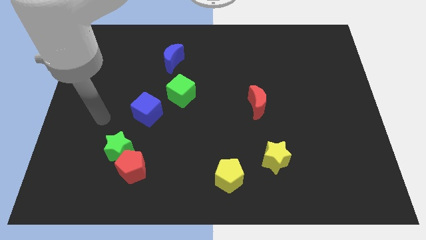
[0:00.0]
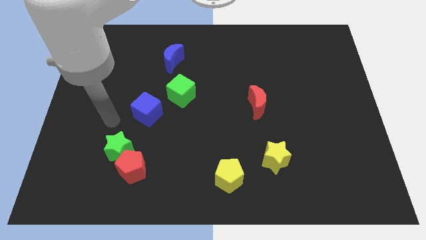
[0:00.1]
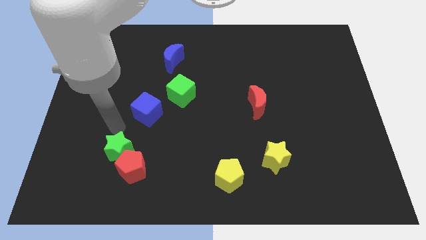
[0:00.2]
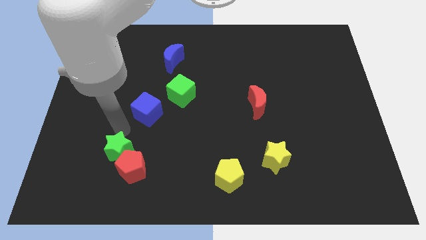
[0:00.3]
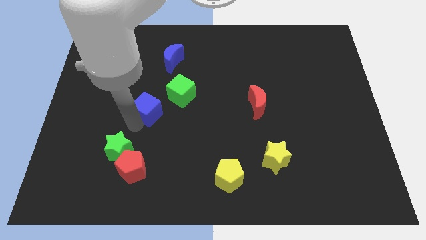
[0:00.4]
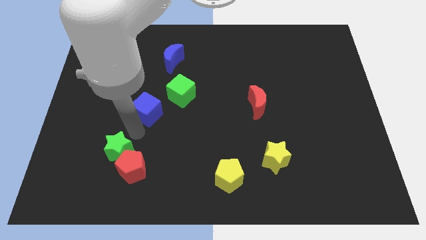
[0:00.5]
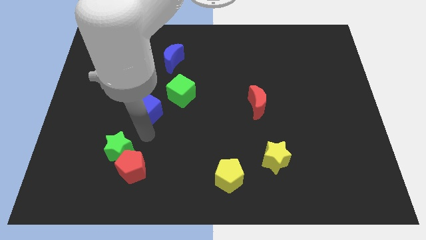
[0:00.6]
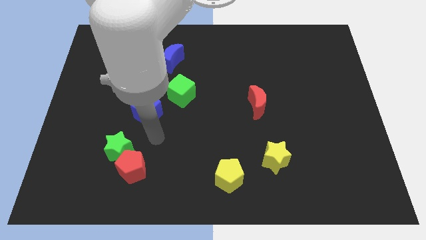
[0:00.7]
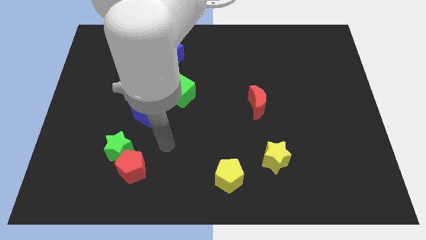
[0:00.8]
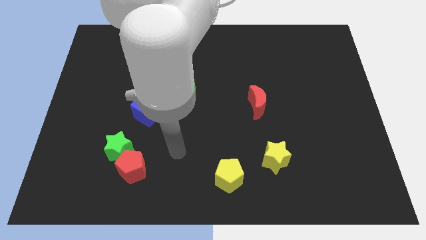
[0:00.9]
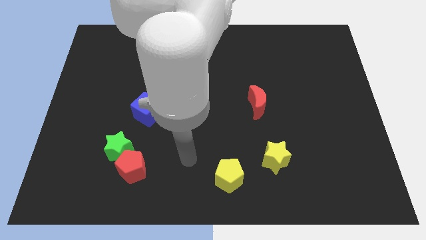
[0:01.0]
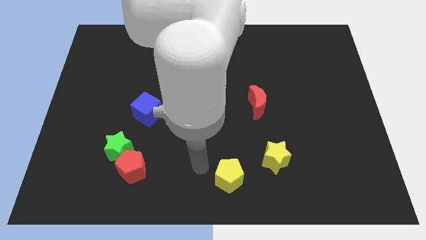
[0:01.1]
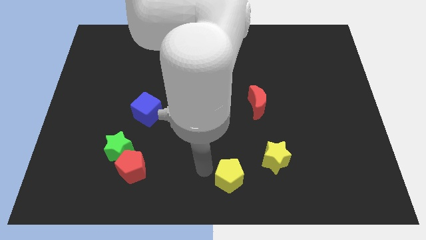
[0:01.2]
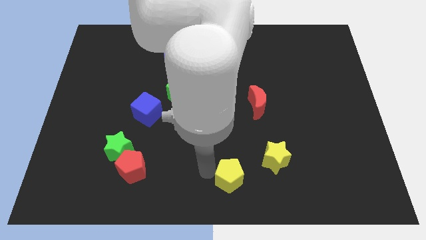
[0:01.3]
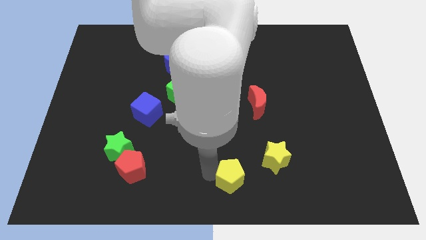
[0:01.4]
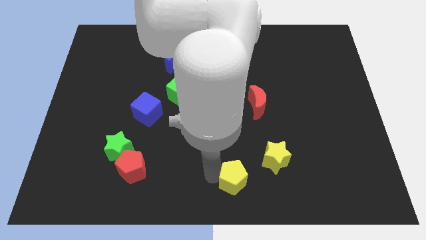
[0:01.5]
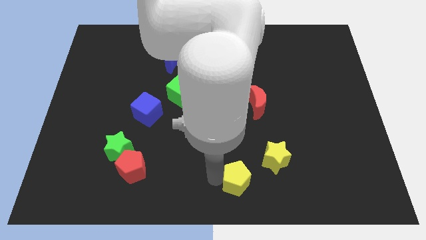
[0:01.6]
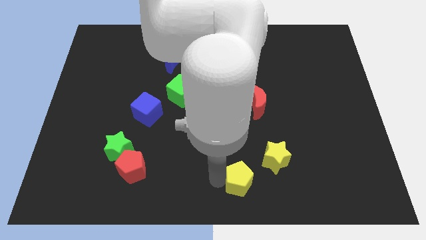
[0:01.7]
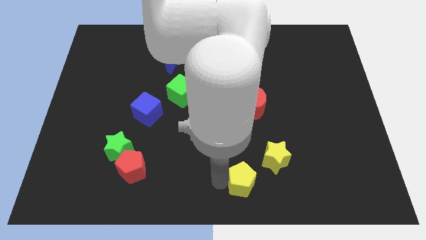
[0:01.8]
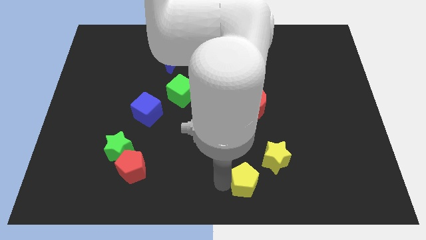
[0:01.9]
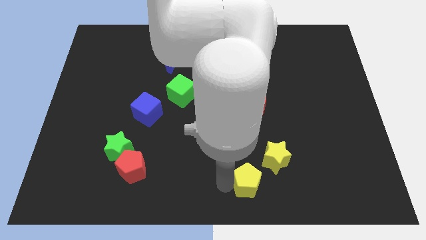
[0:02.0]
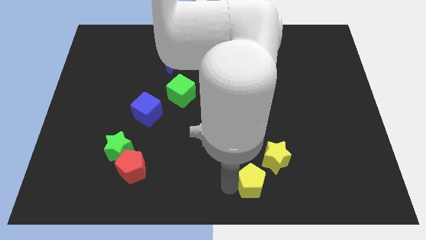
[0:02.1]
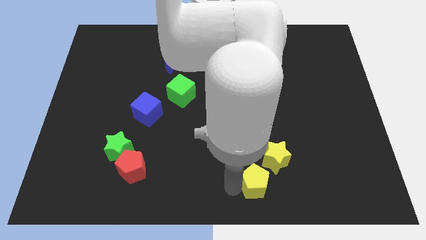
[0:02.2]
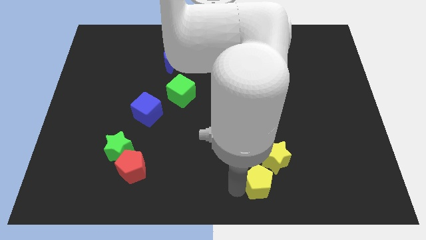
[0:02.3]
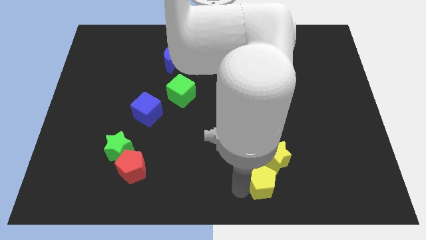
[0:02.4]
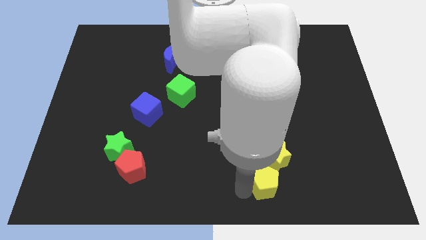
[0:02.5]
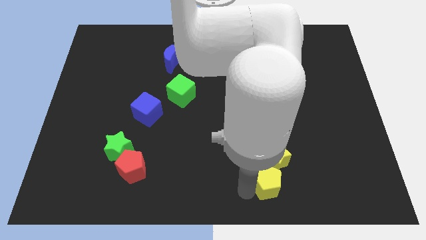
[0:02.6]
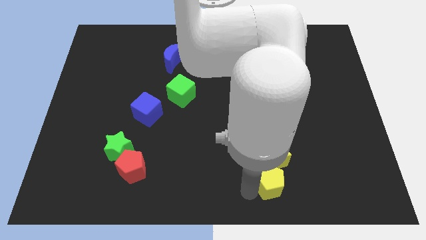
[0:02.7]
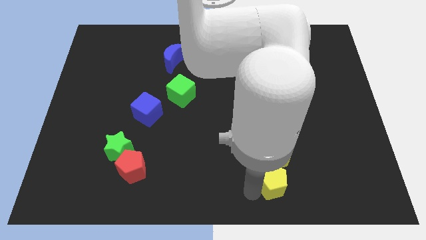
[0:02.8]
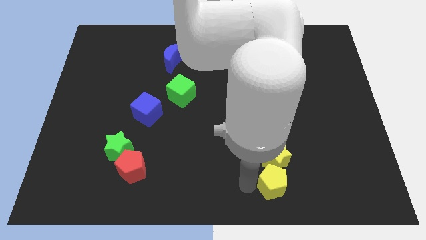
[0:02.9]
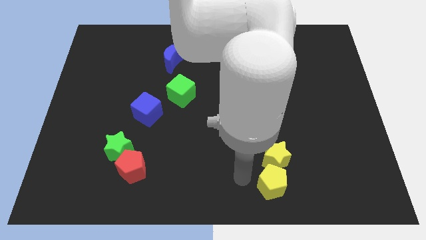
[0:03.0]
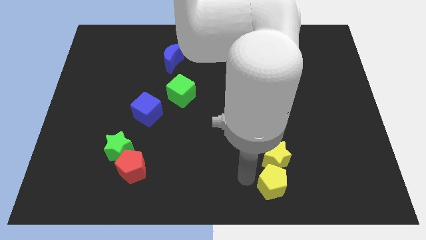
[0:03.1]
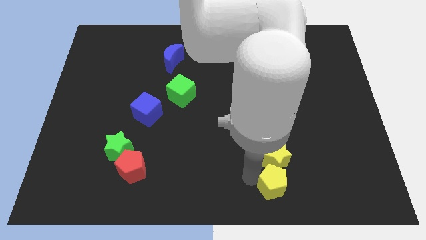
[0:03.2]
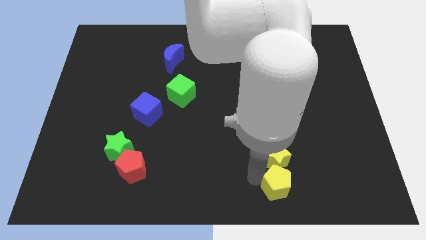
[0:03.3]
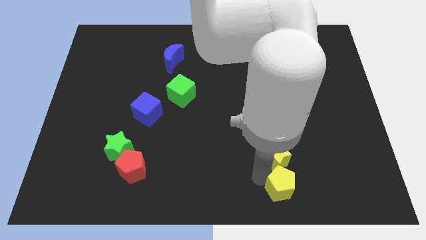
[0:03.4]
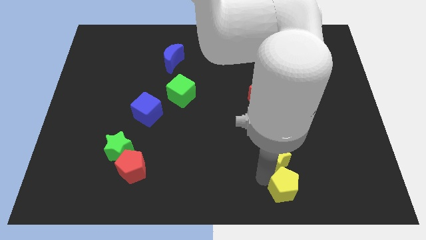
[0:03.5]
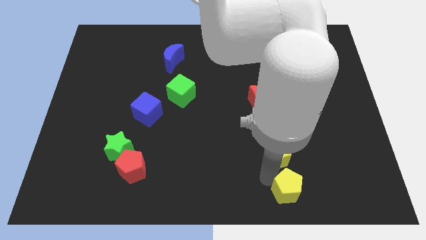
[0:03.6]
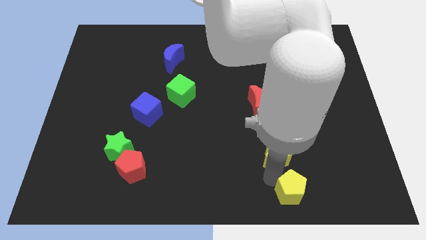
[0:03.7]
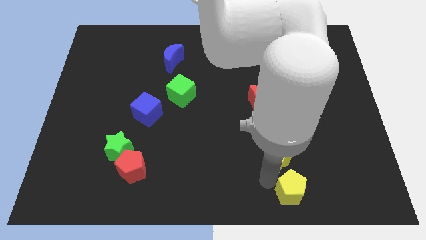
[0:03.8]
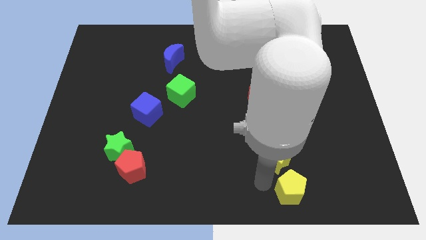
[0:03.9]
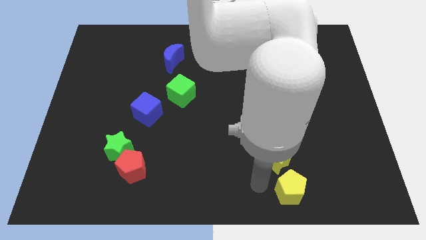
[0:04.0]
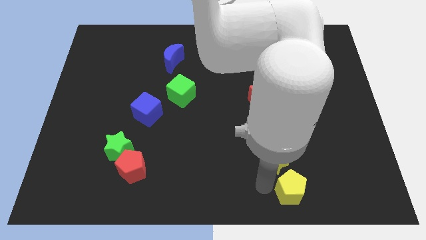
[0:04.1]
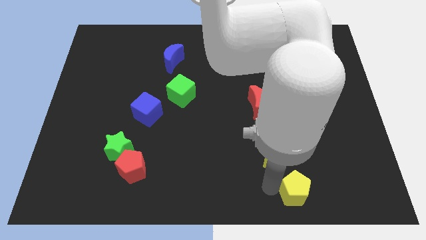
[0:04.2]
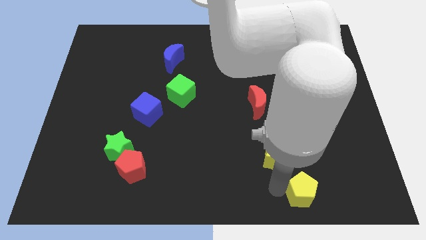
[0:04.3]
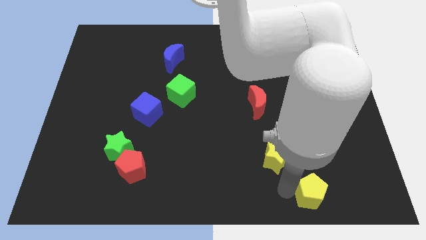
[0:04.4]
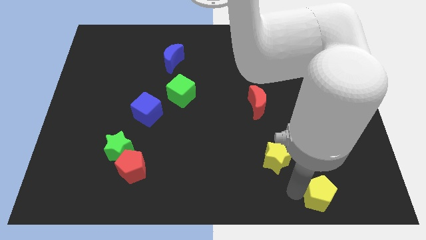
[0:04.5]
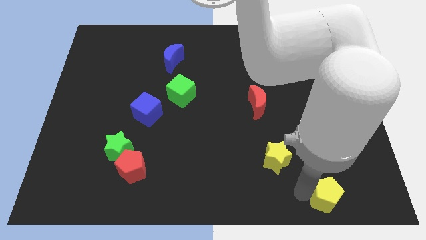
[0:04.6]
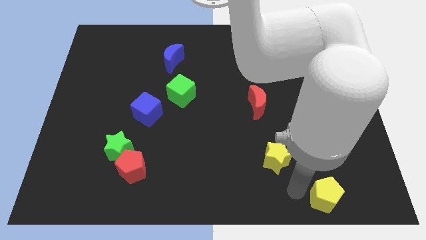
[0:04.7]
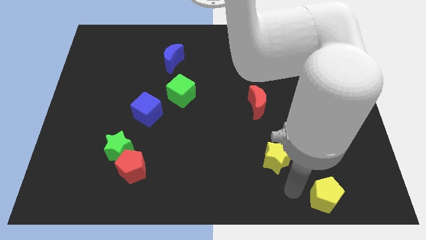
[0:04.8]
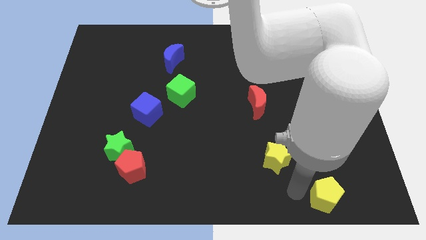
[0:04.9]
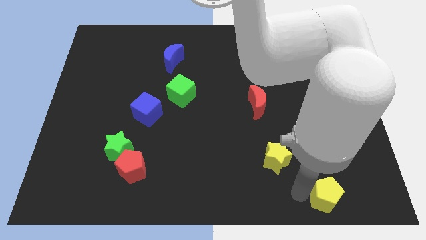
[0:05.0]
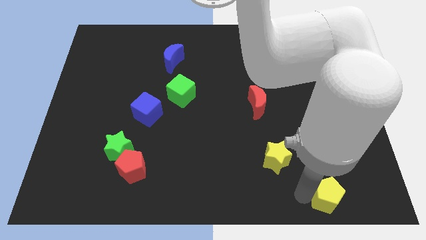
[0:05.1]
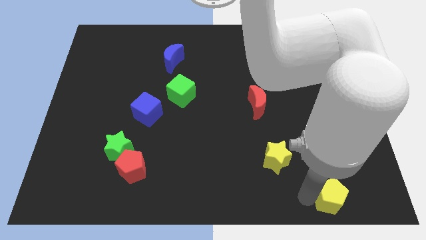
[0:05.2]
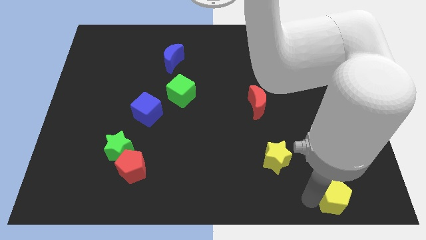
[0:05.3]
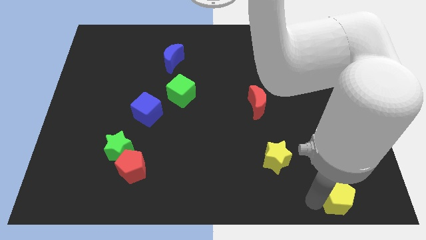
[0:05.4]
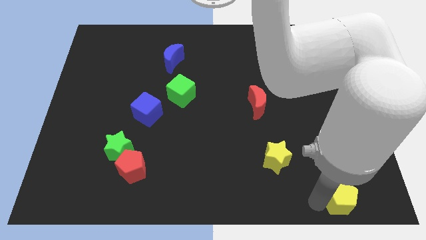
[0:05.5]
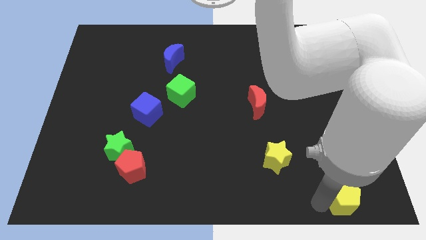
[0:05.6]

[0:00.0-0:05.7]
slide the yellow pentagon to the bottom right corner

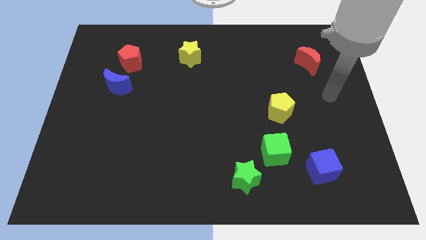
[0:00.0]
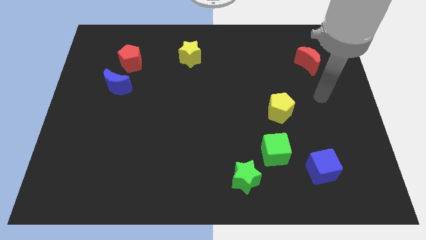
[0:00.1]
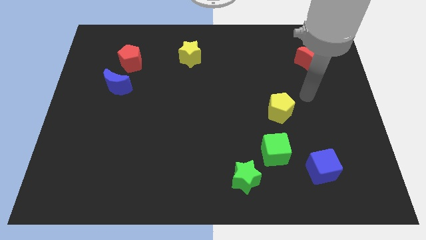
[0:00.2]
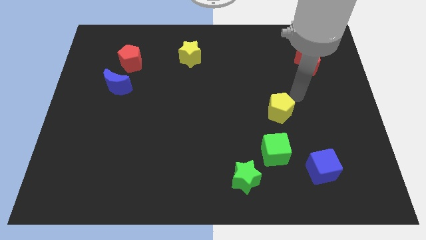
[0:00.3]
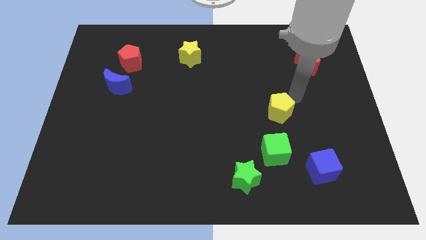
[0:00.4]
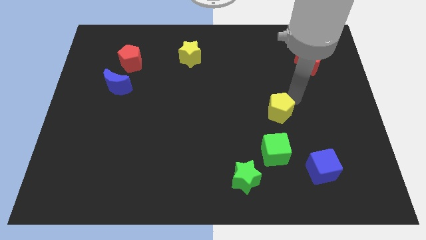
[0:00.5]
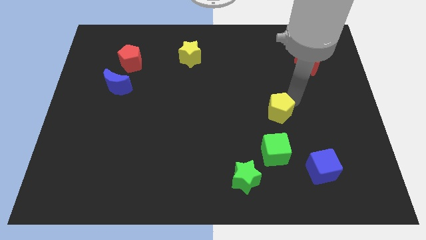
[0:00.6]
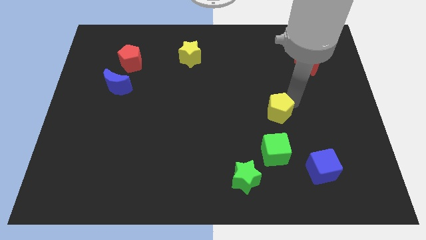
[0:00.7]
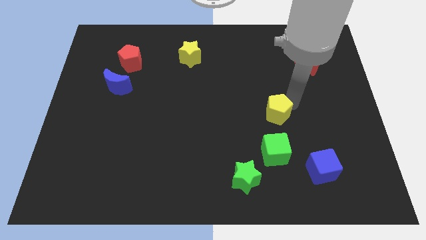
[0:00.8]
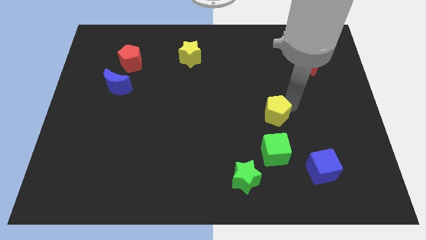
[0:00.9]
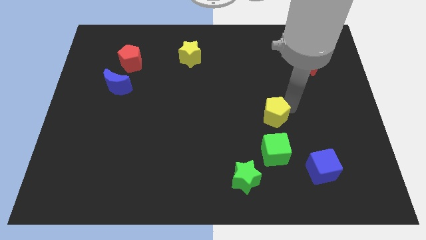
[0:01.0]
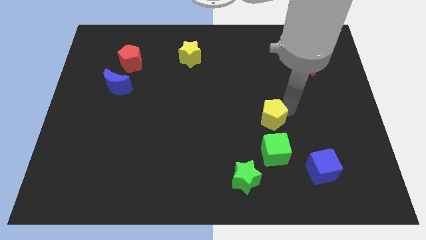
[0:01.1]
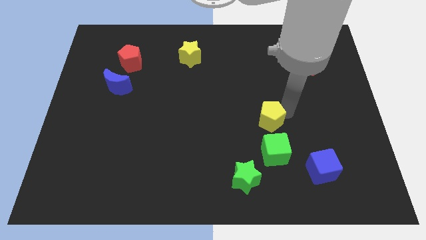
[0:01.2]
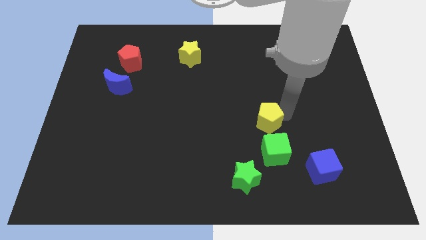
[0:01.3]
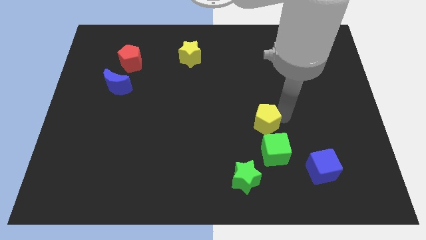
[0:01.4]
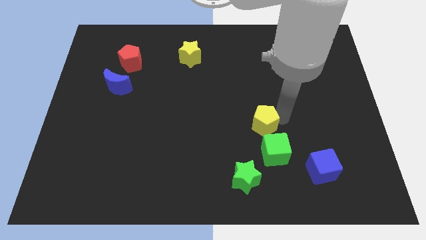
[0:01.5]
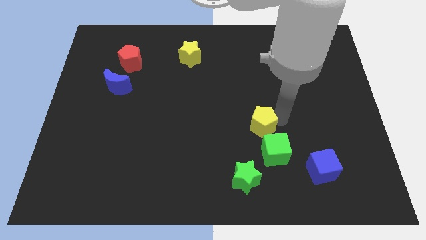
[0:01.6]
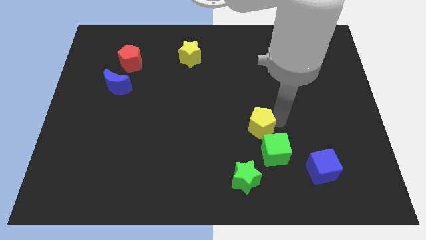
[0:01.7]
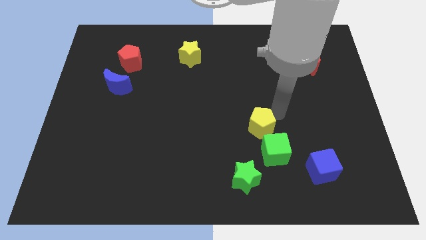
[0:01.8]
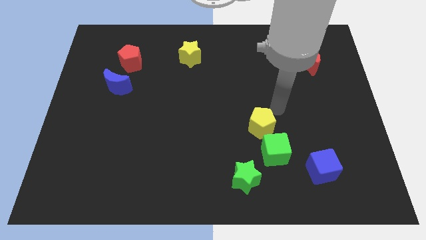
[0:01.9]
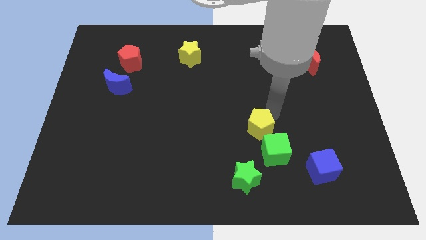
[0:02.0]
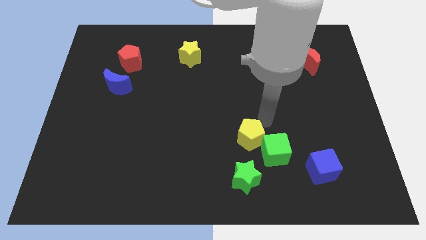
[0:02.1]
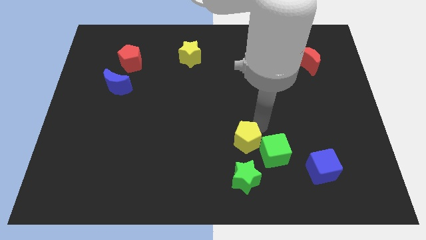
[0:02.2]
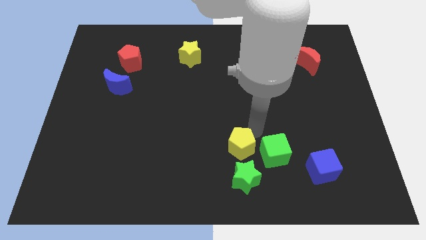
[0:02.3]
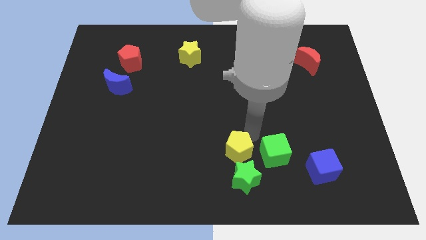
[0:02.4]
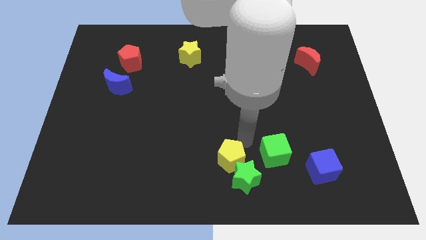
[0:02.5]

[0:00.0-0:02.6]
slide the yellow pentagon to the bottom side
